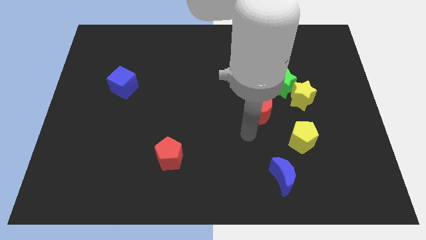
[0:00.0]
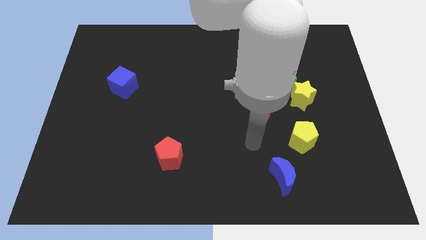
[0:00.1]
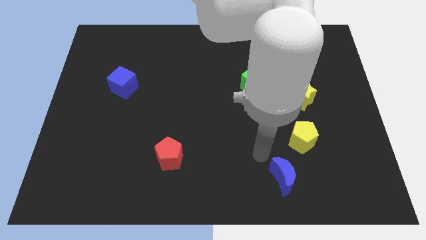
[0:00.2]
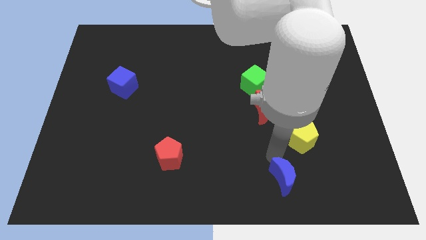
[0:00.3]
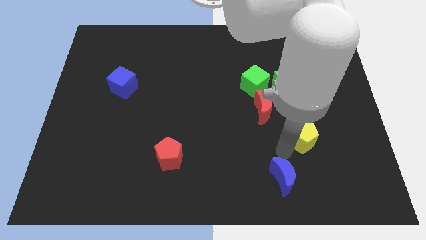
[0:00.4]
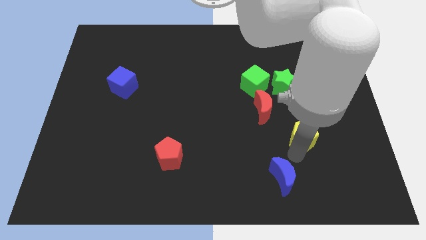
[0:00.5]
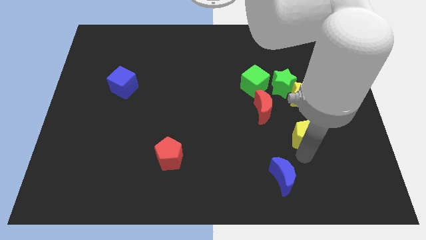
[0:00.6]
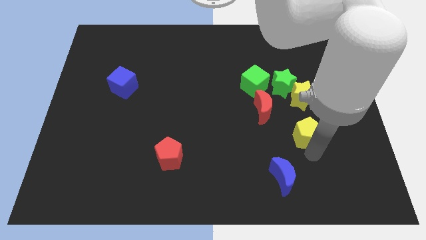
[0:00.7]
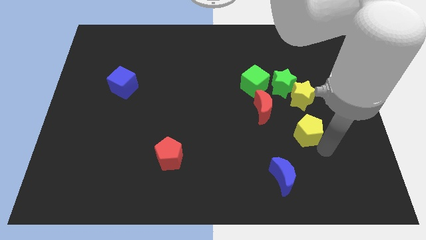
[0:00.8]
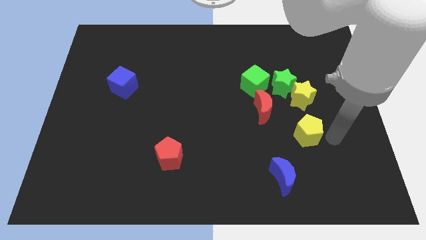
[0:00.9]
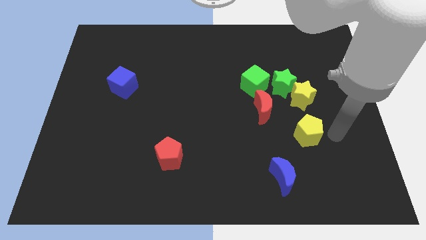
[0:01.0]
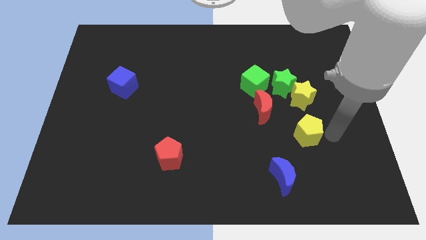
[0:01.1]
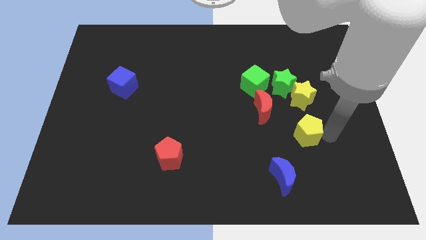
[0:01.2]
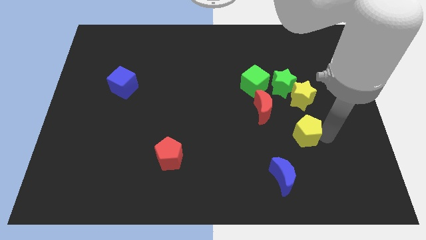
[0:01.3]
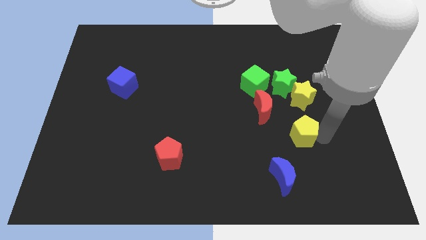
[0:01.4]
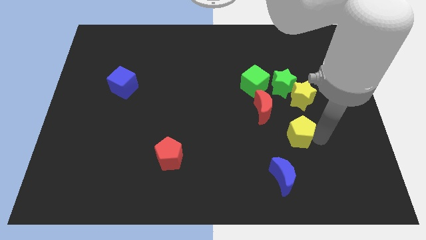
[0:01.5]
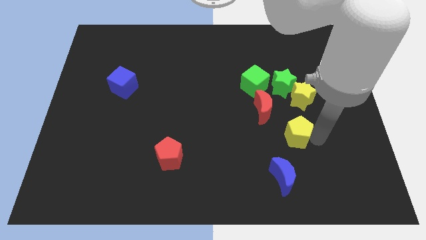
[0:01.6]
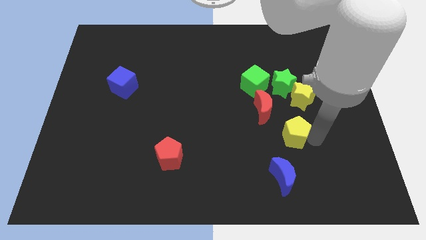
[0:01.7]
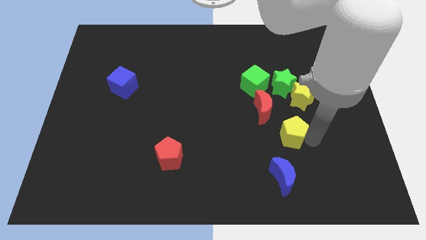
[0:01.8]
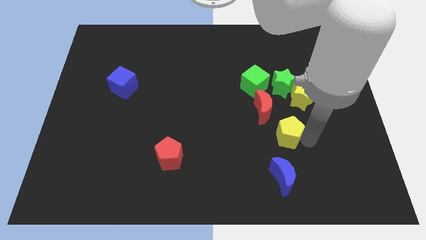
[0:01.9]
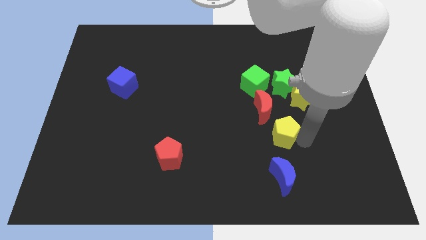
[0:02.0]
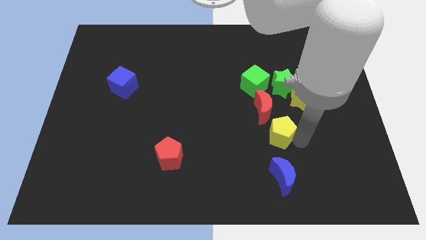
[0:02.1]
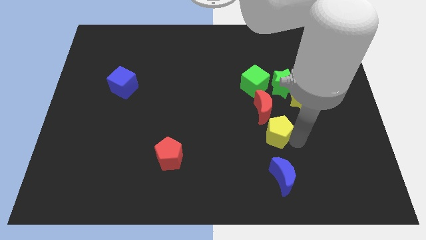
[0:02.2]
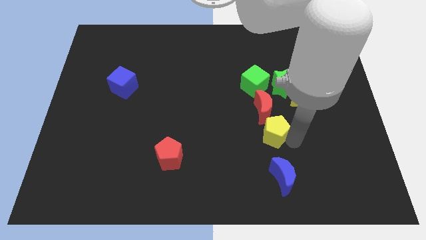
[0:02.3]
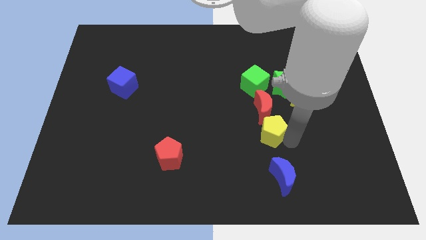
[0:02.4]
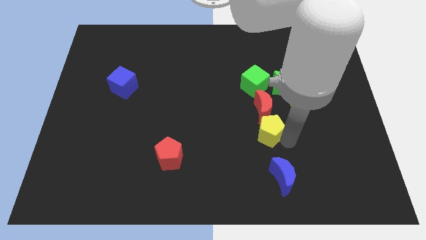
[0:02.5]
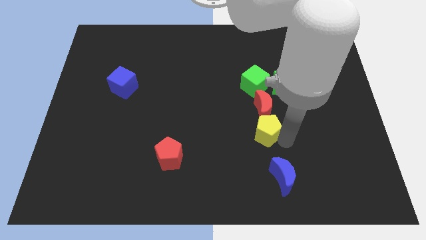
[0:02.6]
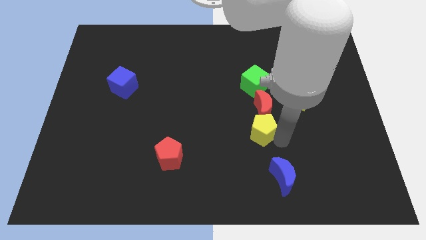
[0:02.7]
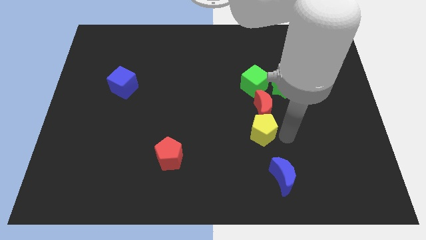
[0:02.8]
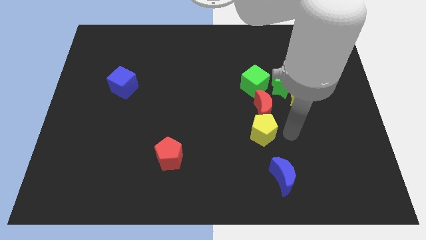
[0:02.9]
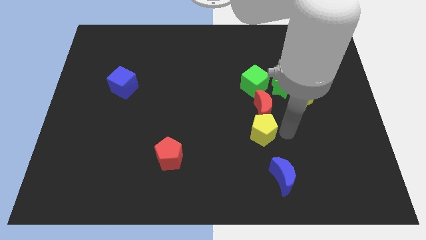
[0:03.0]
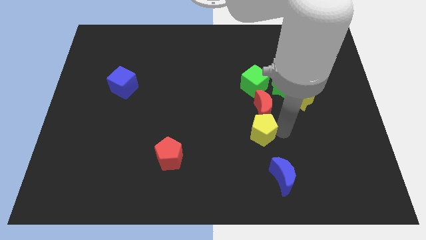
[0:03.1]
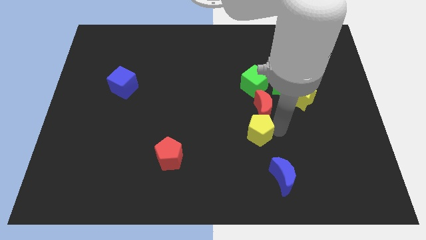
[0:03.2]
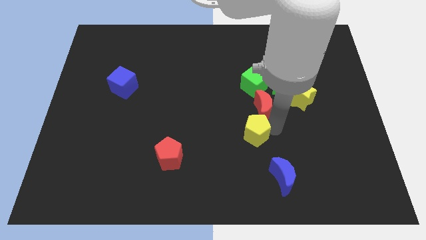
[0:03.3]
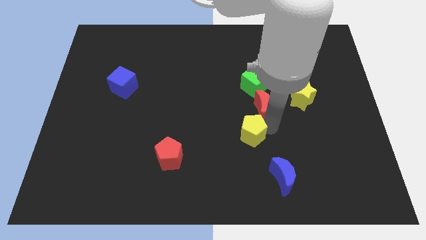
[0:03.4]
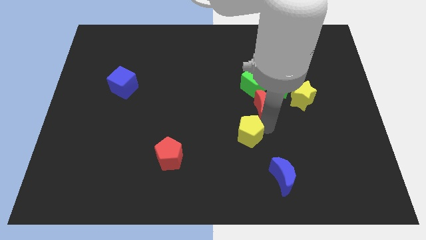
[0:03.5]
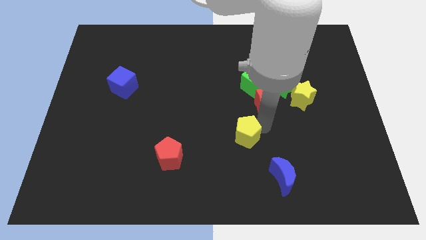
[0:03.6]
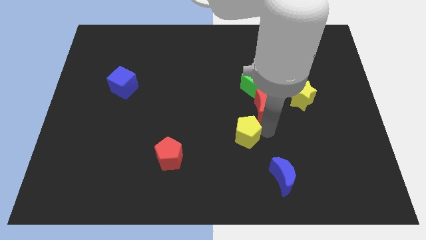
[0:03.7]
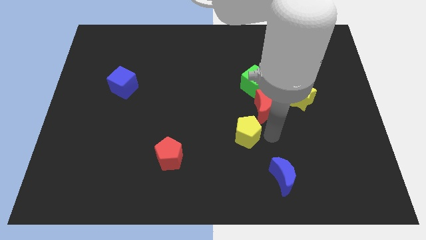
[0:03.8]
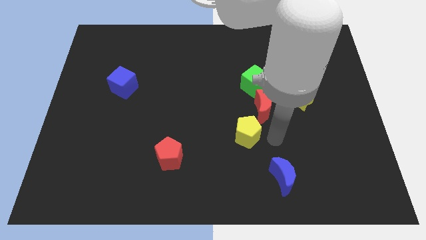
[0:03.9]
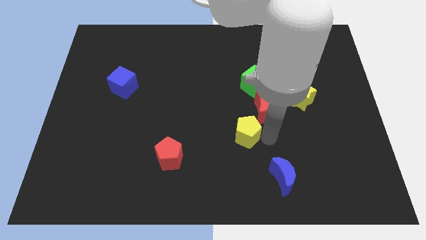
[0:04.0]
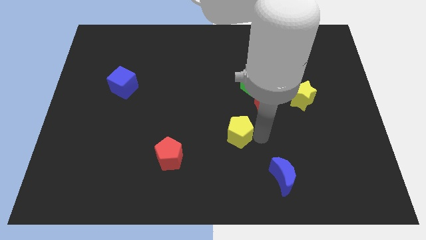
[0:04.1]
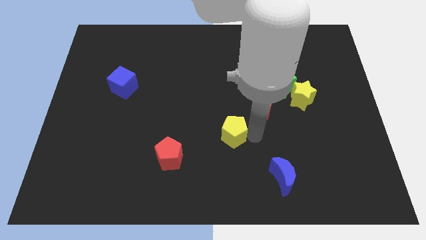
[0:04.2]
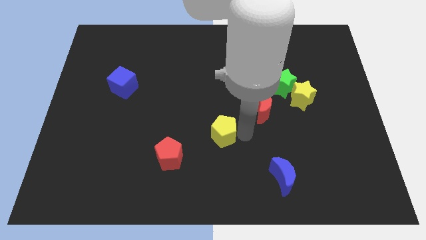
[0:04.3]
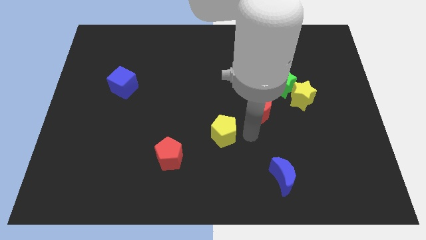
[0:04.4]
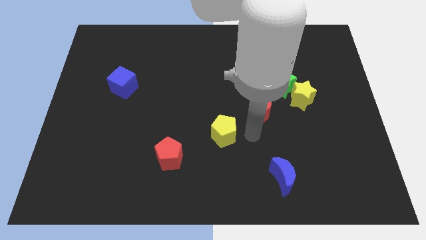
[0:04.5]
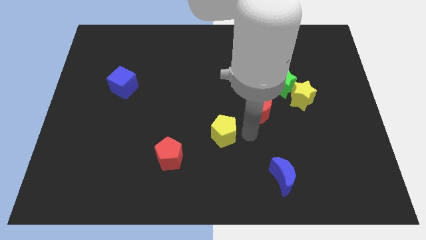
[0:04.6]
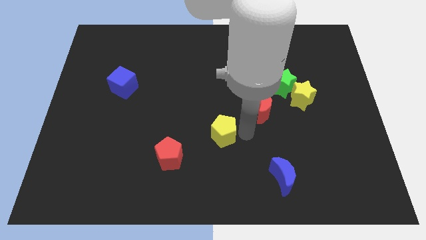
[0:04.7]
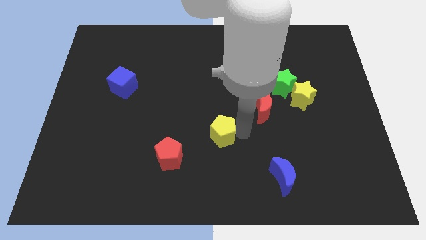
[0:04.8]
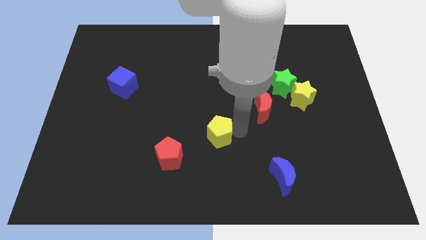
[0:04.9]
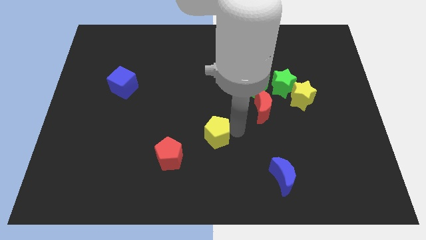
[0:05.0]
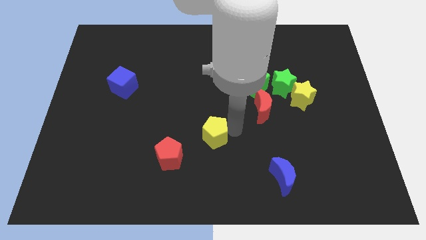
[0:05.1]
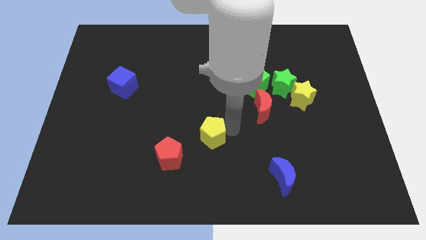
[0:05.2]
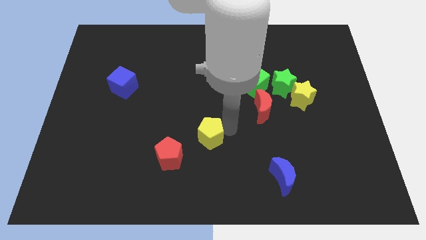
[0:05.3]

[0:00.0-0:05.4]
slide the yellow pentagon left

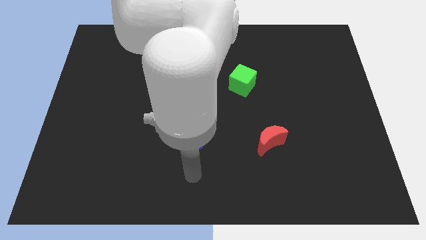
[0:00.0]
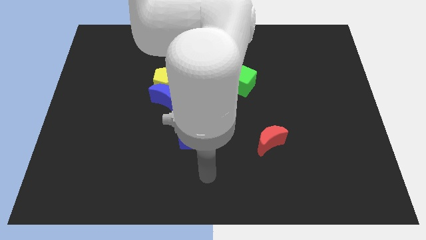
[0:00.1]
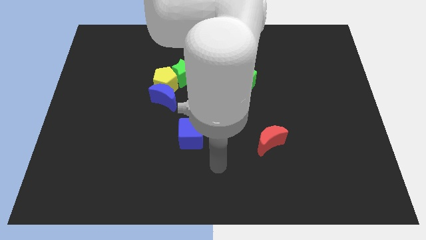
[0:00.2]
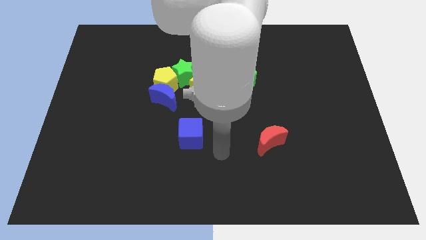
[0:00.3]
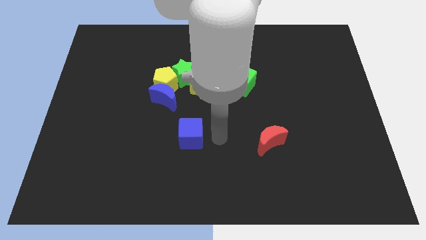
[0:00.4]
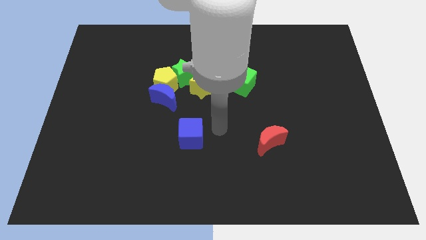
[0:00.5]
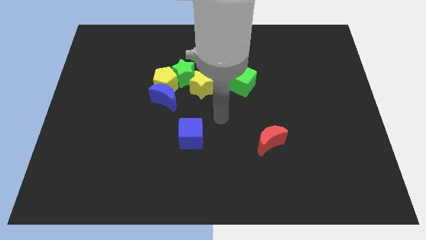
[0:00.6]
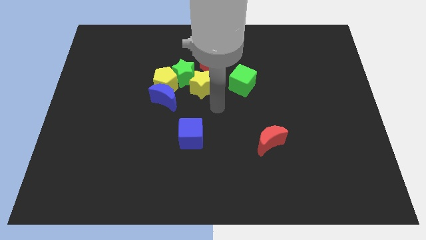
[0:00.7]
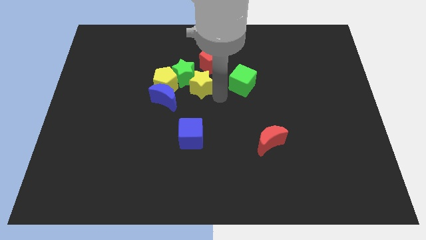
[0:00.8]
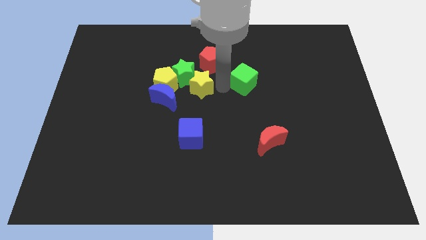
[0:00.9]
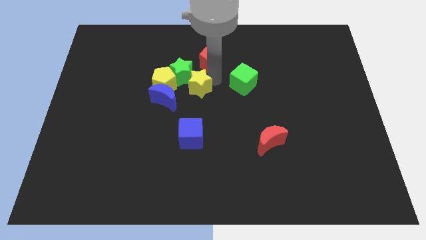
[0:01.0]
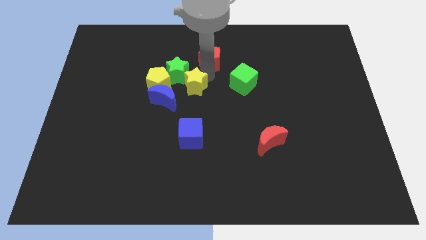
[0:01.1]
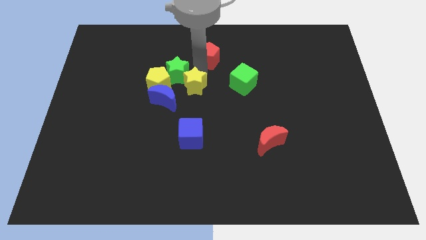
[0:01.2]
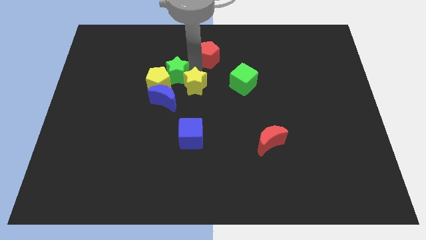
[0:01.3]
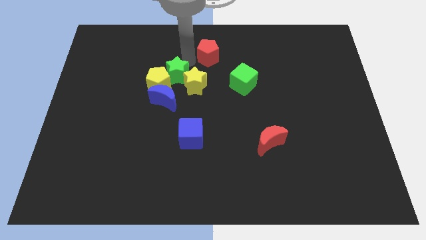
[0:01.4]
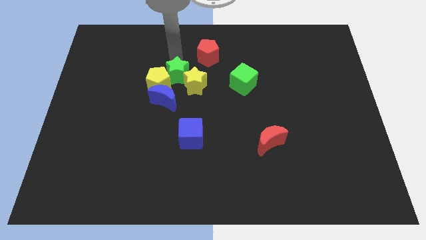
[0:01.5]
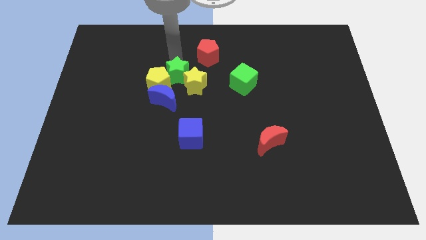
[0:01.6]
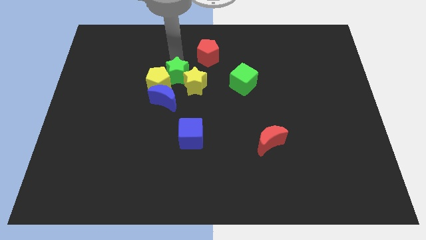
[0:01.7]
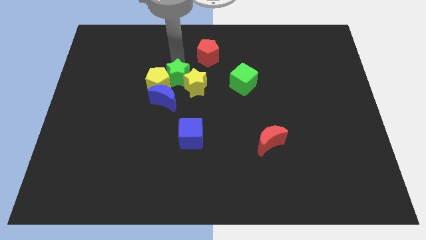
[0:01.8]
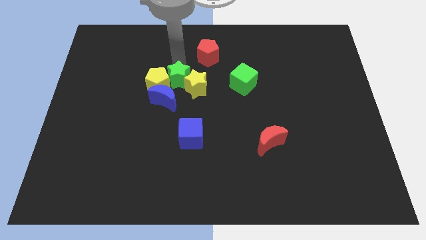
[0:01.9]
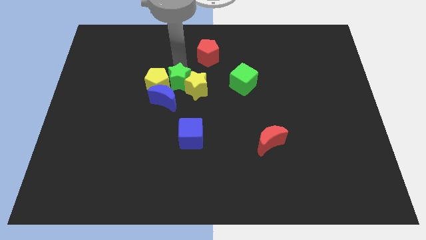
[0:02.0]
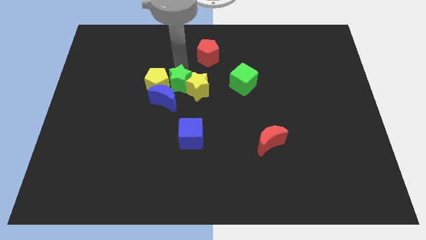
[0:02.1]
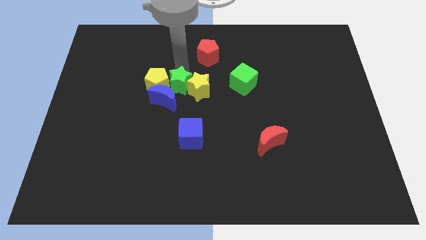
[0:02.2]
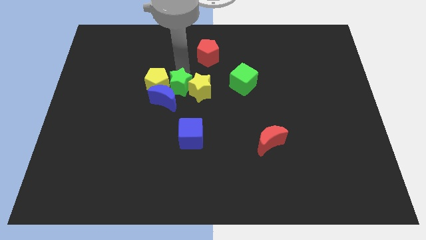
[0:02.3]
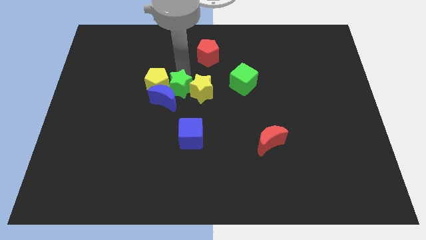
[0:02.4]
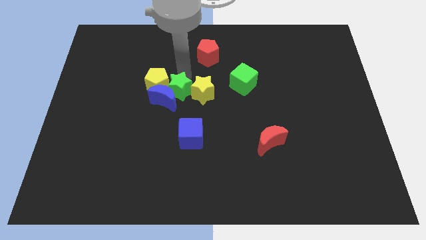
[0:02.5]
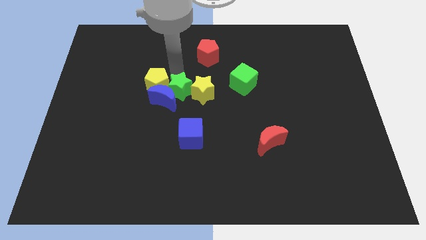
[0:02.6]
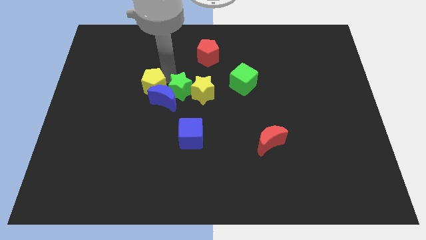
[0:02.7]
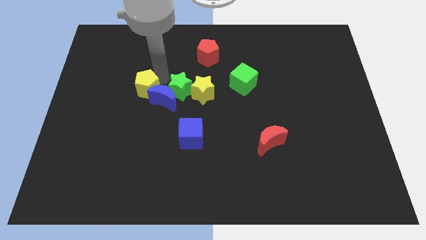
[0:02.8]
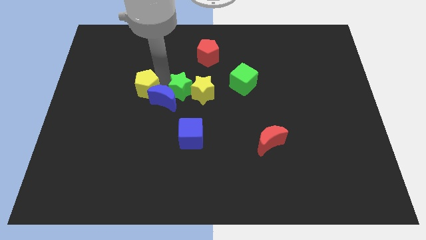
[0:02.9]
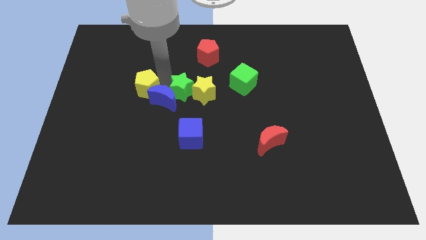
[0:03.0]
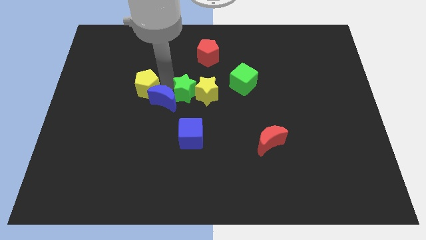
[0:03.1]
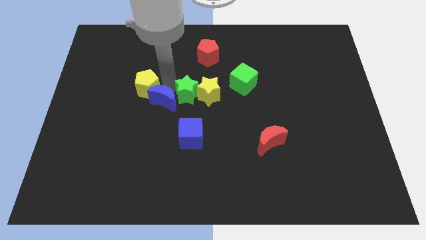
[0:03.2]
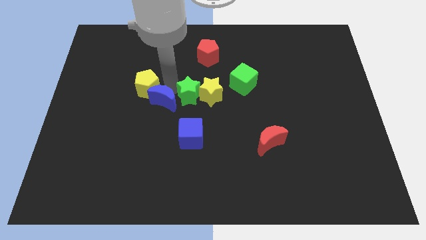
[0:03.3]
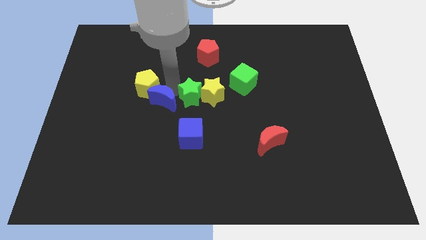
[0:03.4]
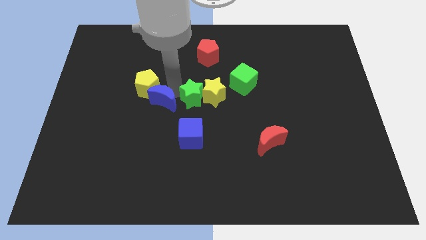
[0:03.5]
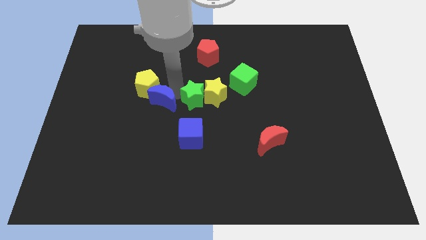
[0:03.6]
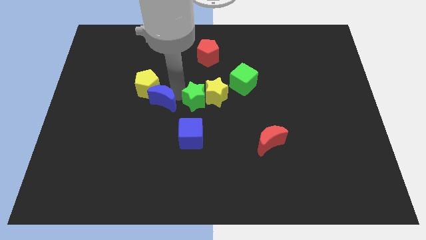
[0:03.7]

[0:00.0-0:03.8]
slightly move the green star downwards and right
